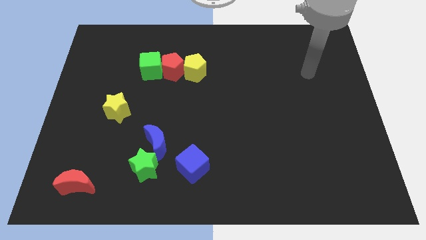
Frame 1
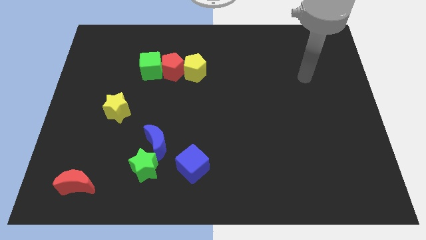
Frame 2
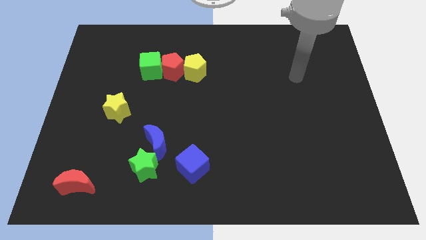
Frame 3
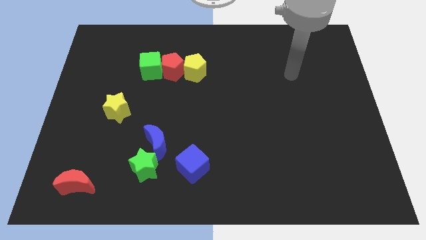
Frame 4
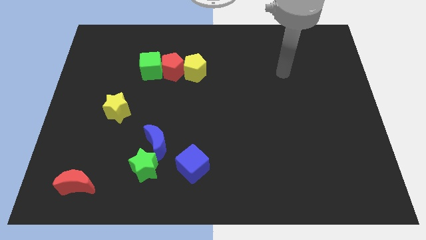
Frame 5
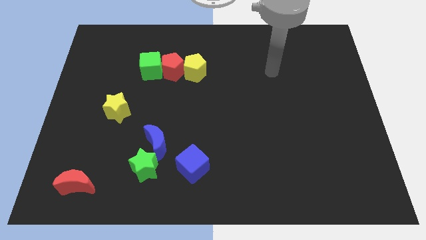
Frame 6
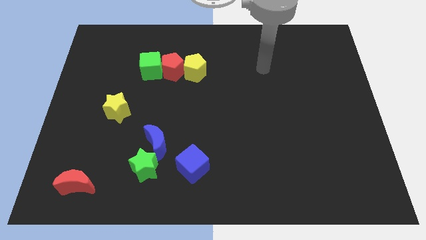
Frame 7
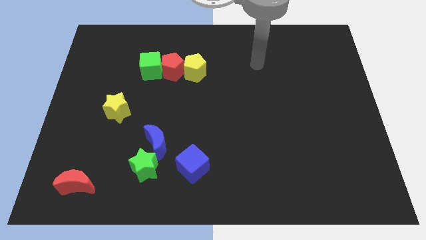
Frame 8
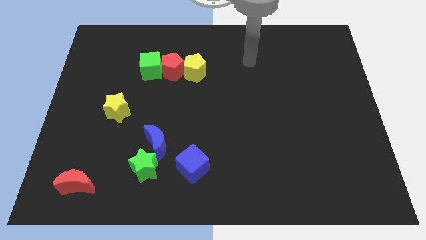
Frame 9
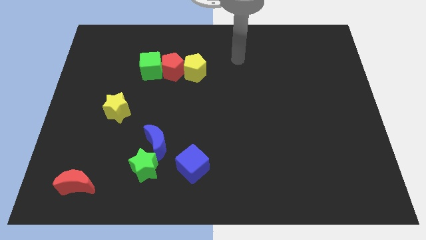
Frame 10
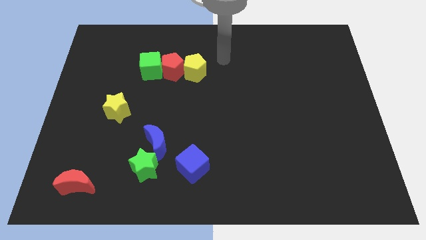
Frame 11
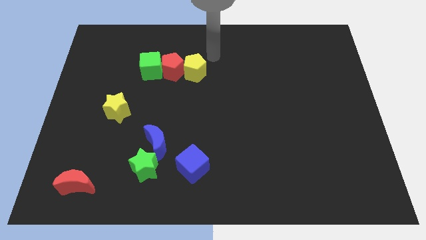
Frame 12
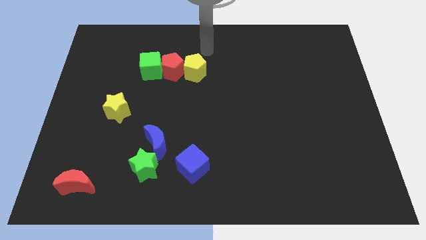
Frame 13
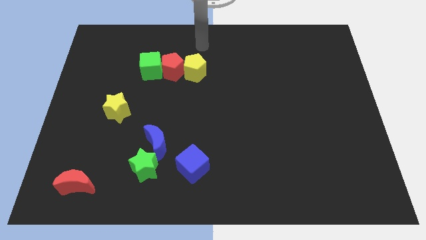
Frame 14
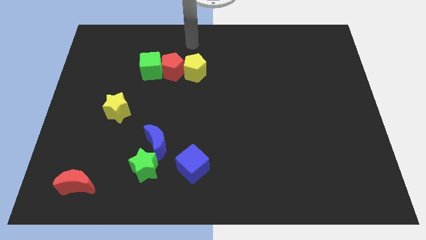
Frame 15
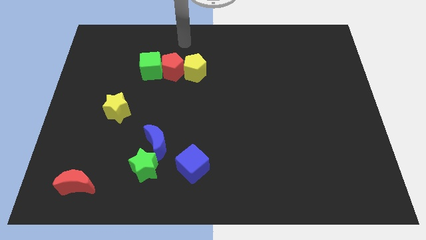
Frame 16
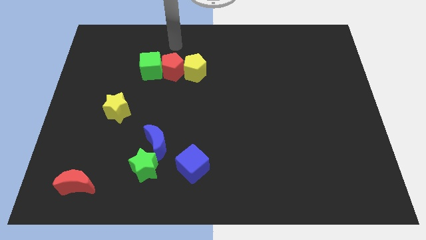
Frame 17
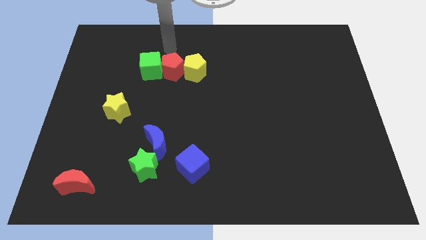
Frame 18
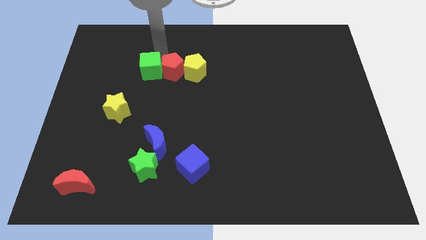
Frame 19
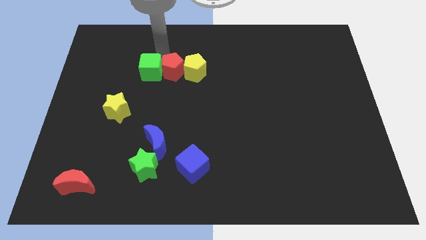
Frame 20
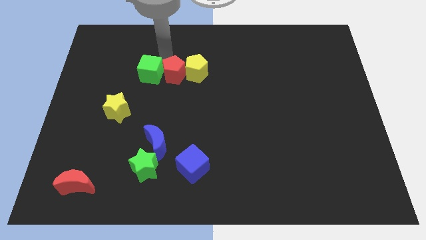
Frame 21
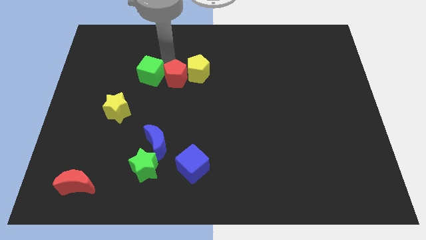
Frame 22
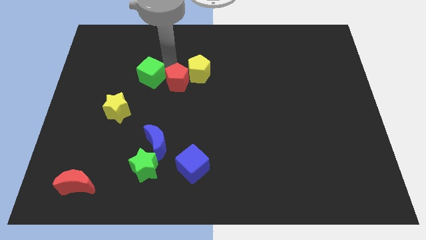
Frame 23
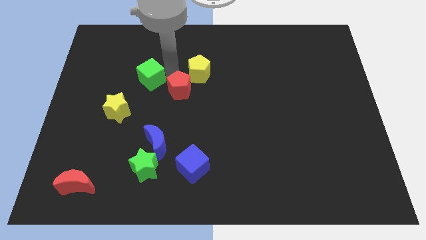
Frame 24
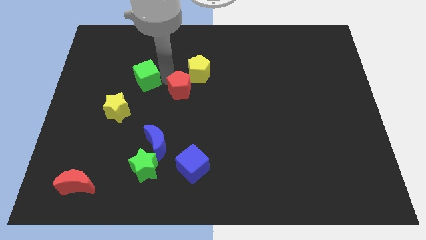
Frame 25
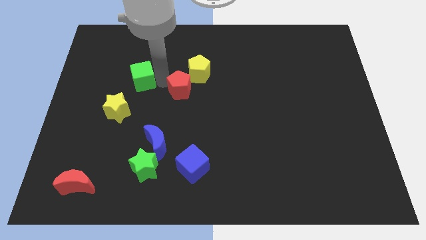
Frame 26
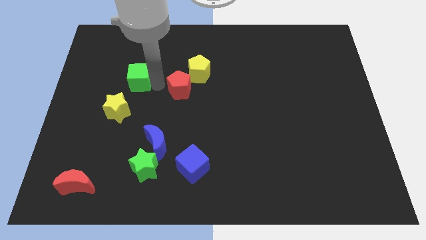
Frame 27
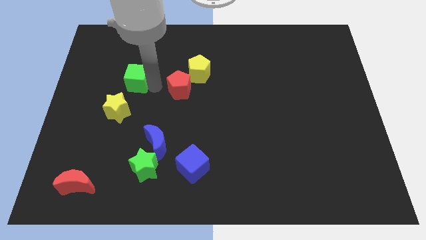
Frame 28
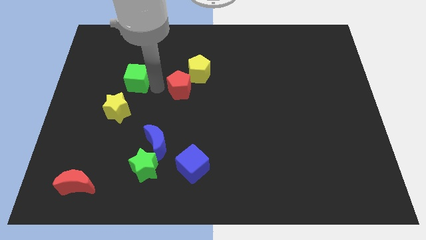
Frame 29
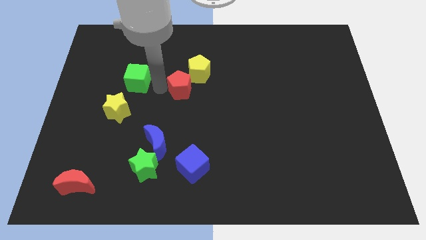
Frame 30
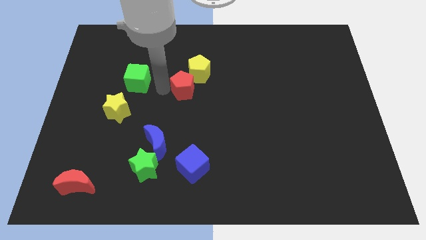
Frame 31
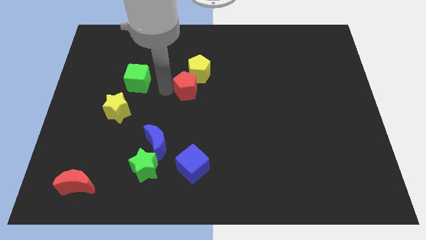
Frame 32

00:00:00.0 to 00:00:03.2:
move the red pentagon a bit diagonally down and right

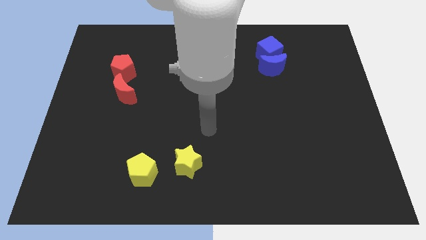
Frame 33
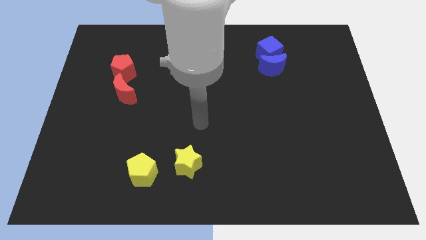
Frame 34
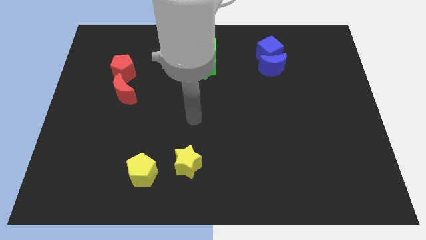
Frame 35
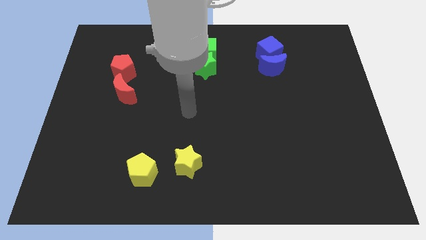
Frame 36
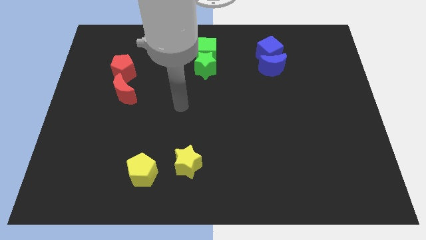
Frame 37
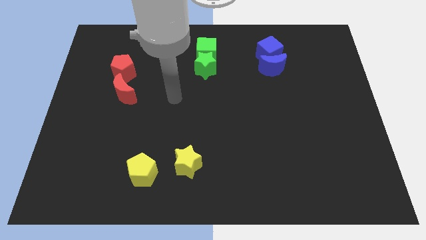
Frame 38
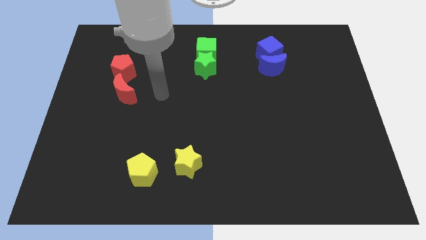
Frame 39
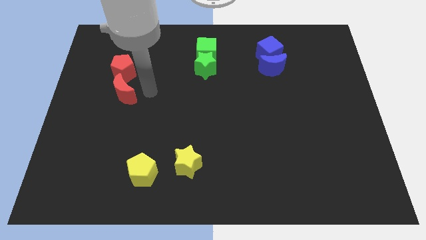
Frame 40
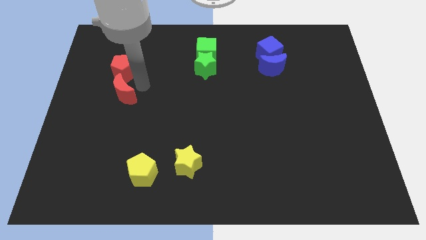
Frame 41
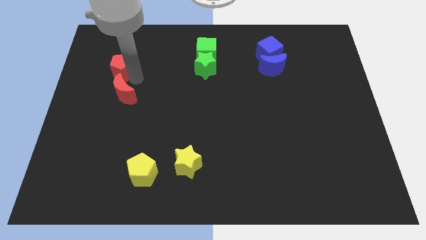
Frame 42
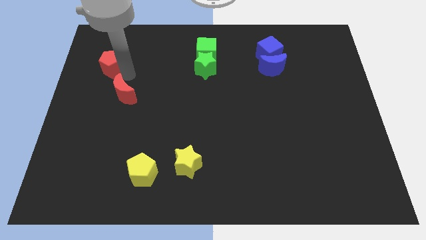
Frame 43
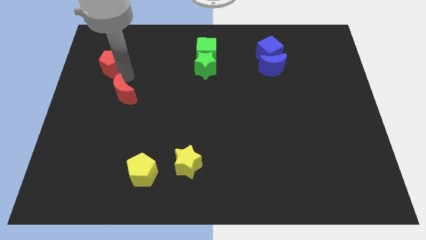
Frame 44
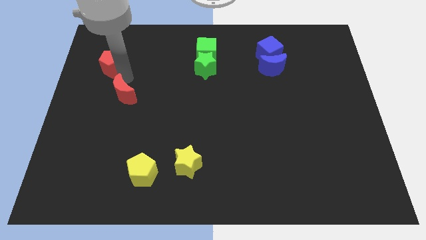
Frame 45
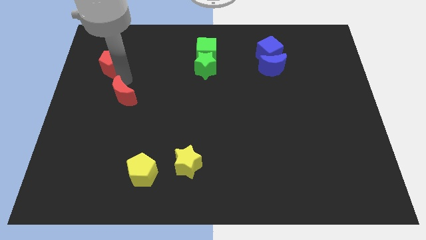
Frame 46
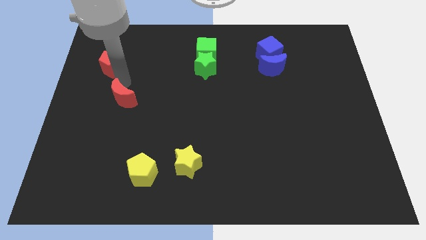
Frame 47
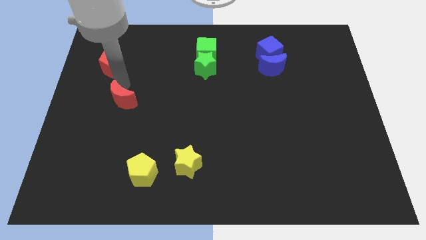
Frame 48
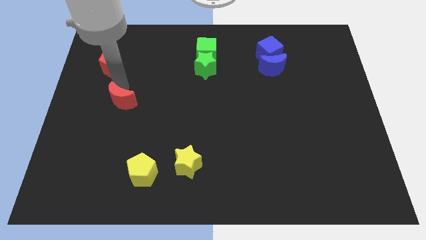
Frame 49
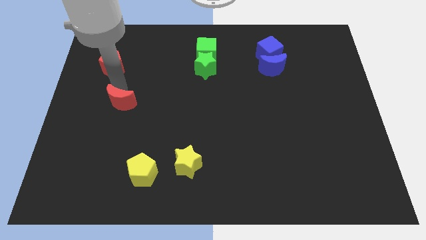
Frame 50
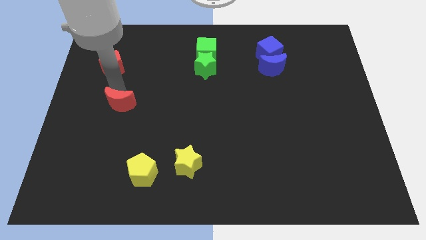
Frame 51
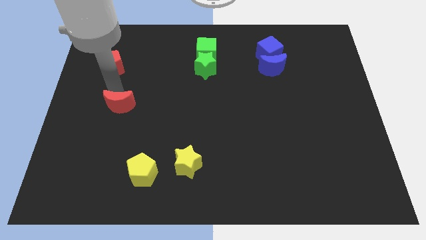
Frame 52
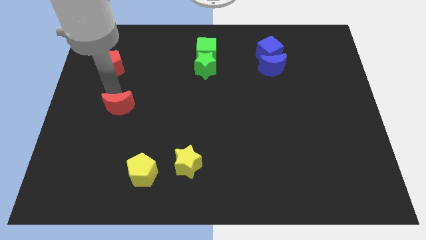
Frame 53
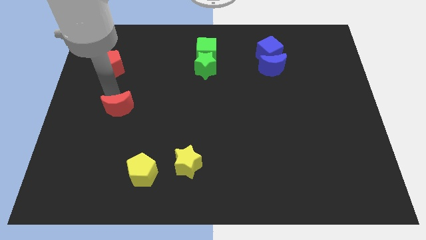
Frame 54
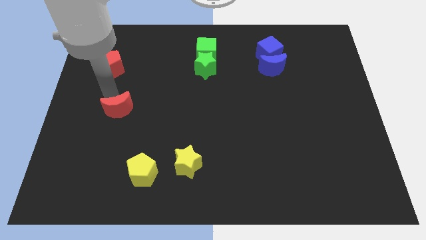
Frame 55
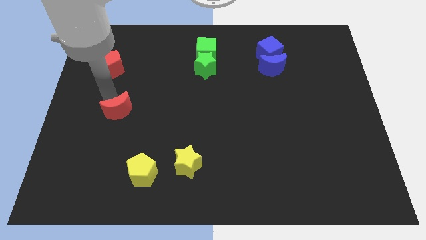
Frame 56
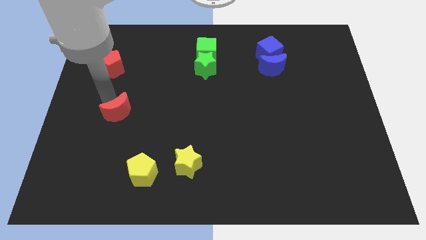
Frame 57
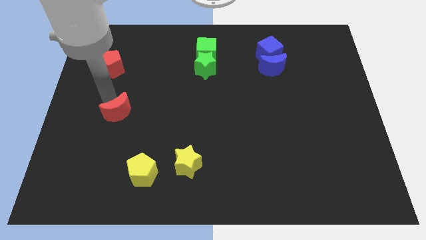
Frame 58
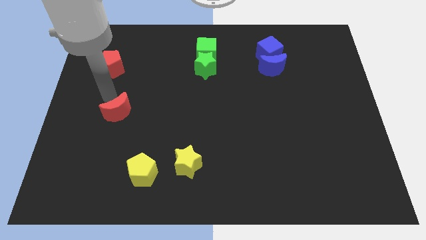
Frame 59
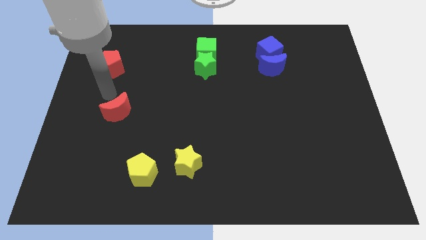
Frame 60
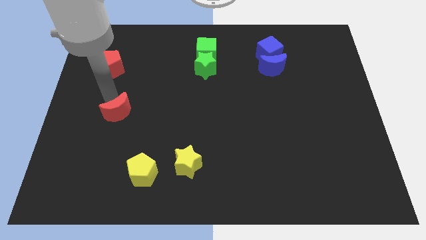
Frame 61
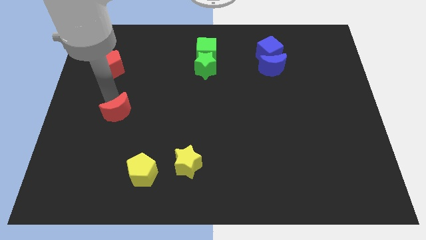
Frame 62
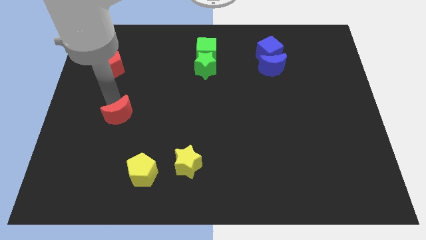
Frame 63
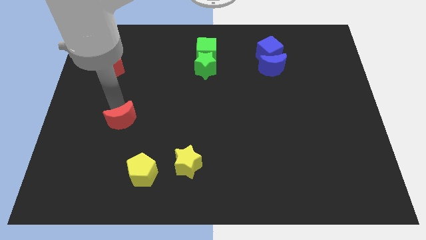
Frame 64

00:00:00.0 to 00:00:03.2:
slightly move the red moon downwards

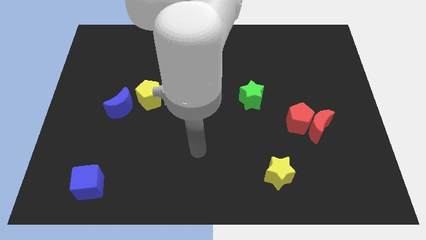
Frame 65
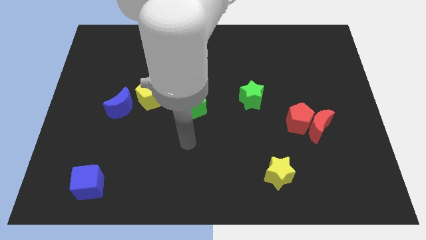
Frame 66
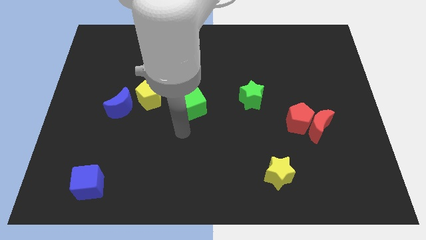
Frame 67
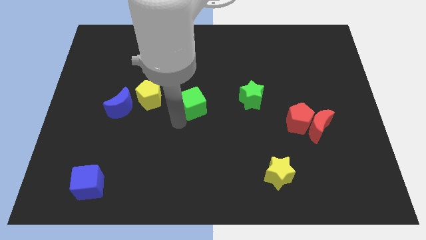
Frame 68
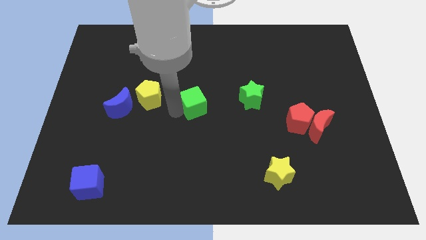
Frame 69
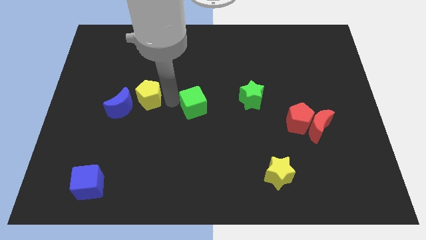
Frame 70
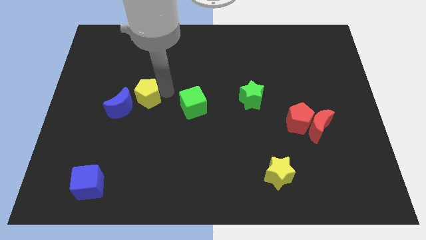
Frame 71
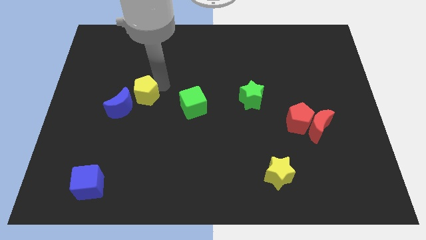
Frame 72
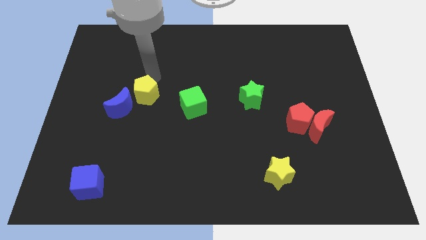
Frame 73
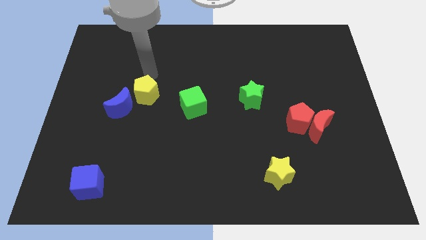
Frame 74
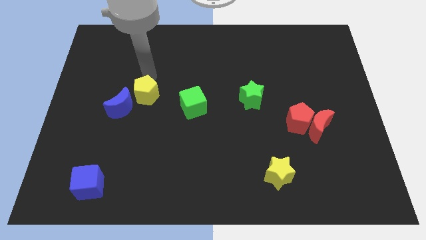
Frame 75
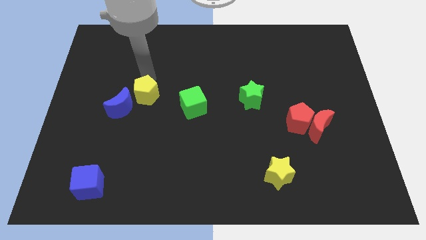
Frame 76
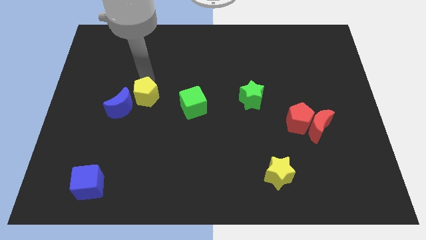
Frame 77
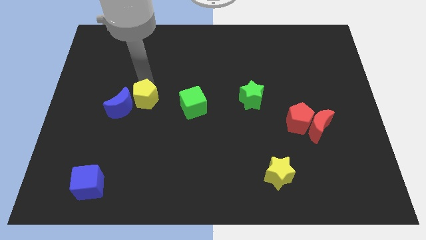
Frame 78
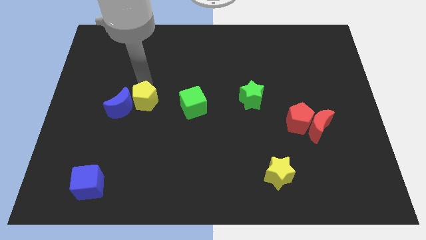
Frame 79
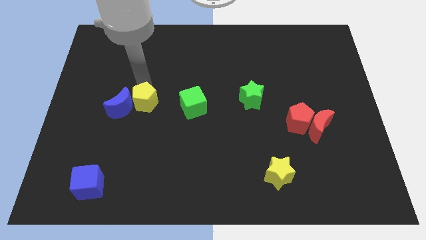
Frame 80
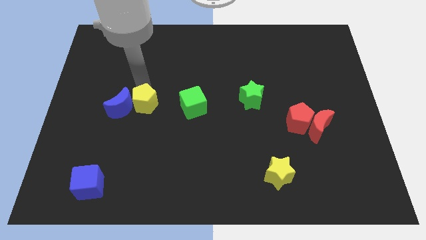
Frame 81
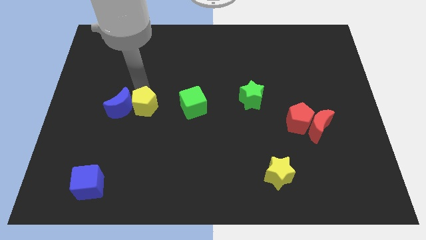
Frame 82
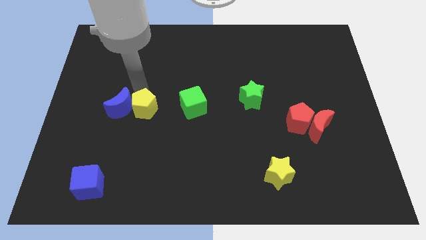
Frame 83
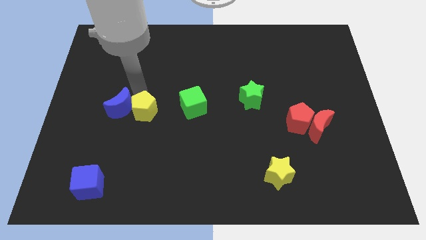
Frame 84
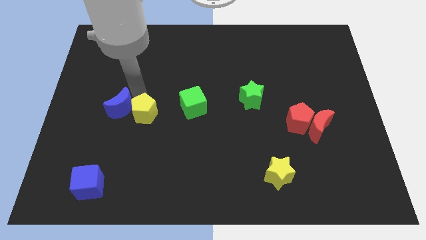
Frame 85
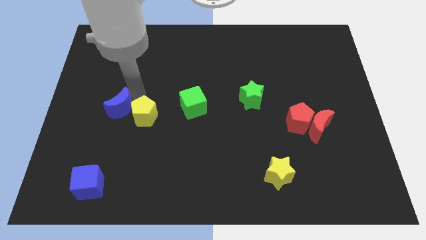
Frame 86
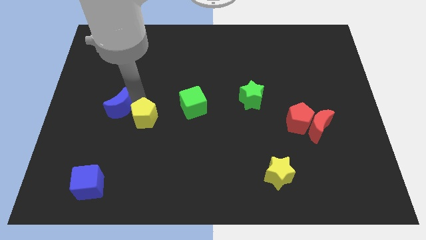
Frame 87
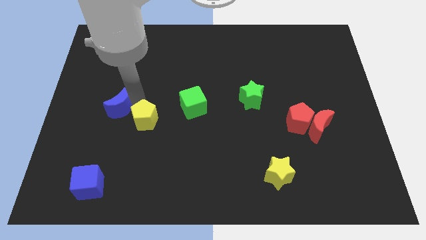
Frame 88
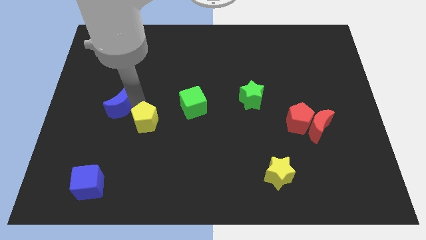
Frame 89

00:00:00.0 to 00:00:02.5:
slide the yellow pentagon down a little bit
